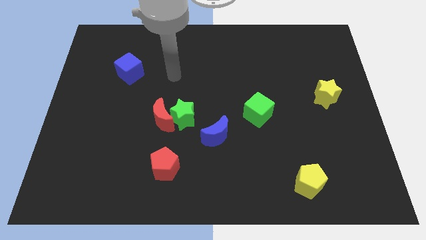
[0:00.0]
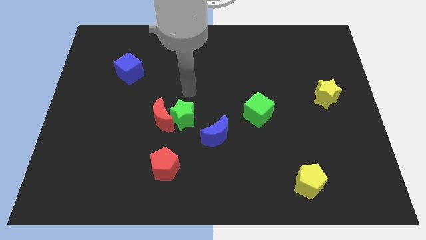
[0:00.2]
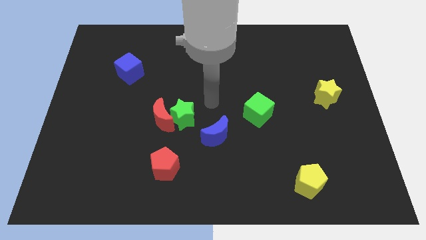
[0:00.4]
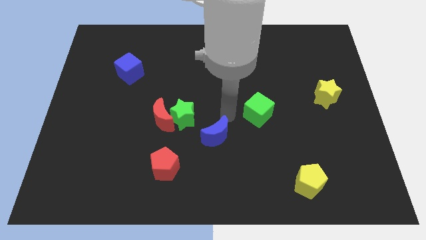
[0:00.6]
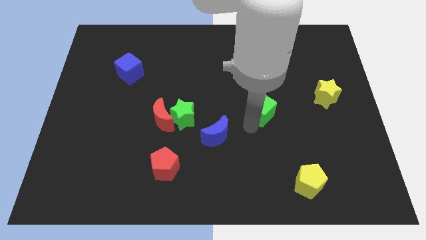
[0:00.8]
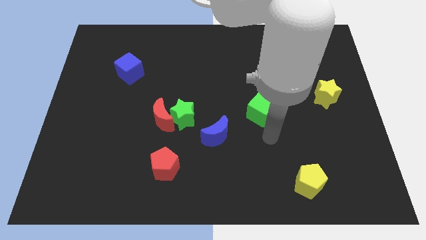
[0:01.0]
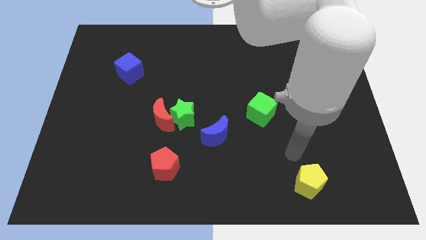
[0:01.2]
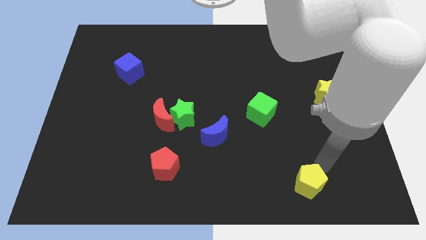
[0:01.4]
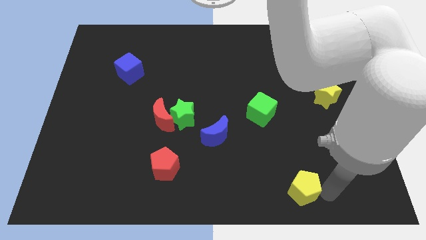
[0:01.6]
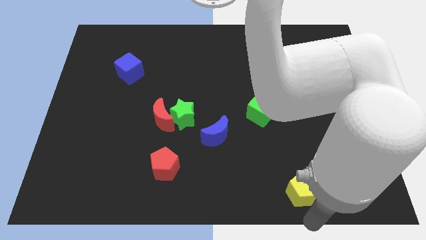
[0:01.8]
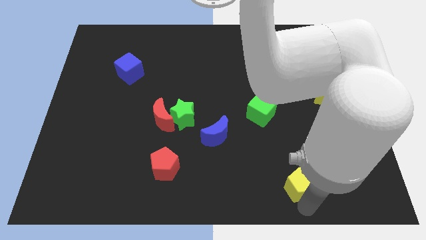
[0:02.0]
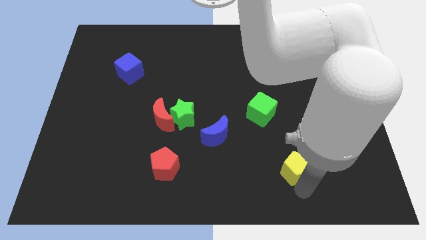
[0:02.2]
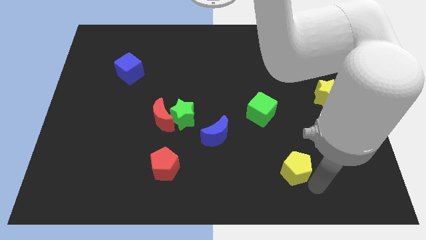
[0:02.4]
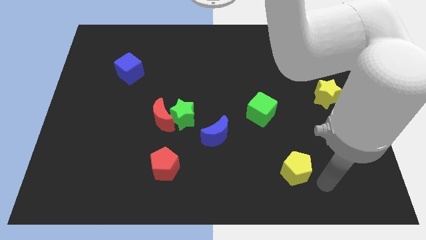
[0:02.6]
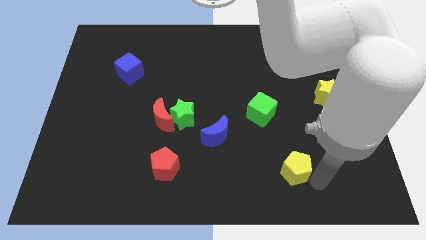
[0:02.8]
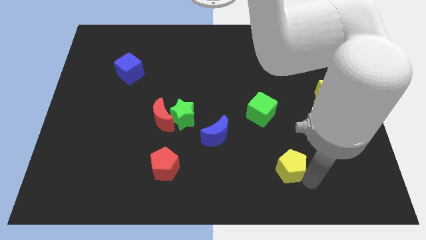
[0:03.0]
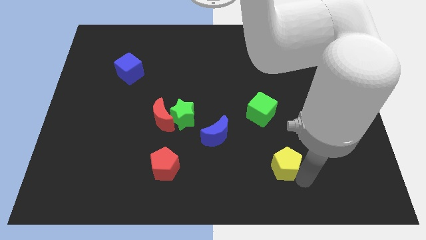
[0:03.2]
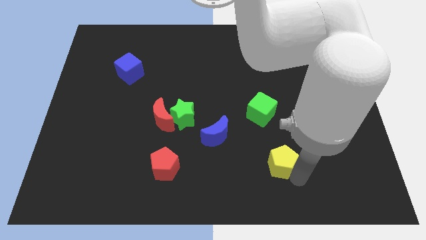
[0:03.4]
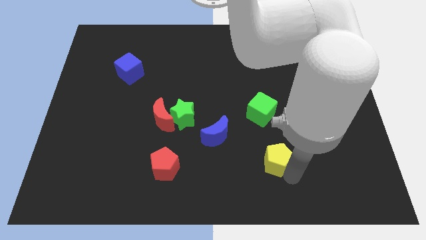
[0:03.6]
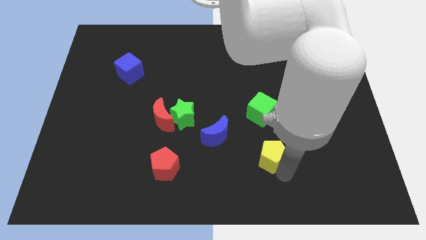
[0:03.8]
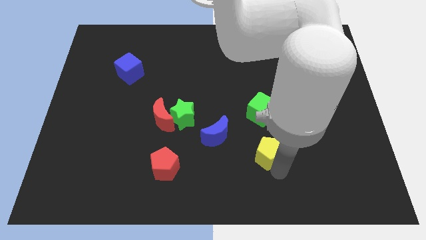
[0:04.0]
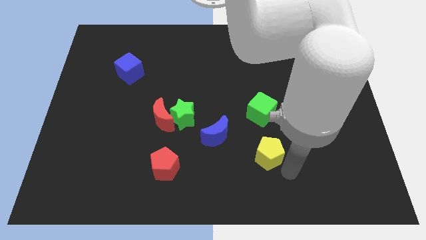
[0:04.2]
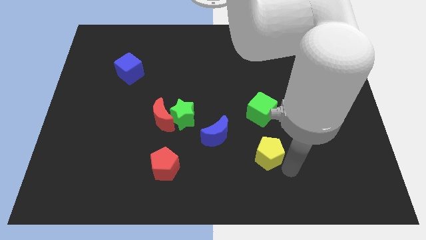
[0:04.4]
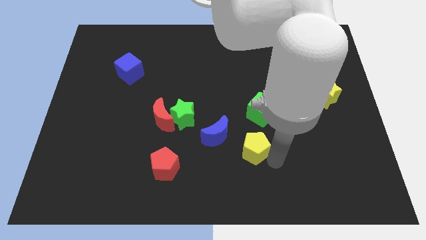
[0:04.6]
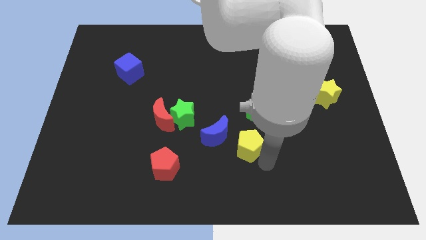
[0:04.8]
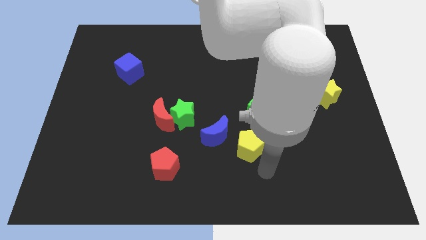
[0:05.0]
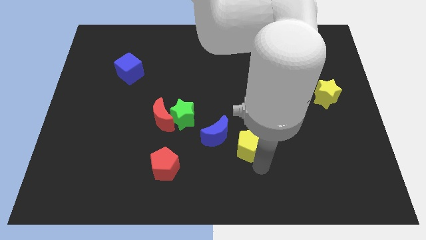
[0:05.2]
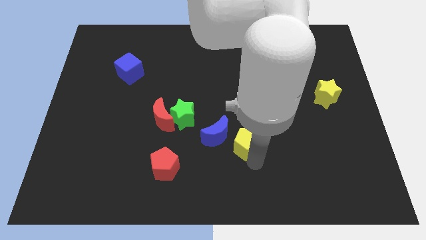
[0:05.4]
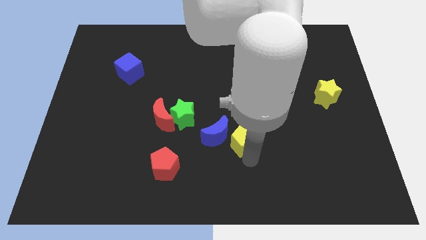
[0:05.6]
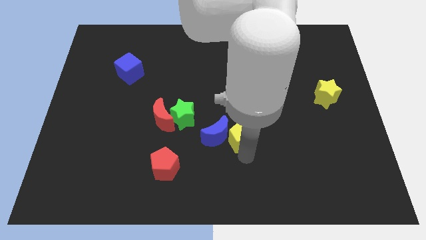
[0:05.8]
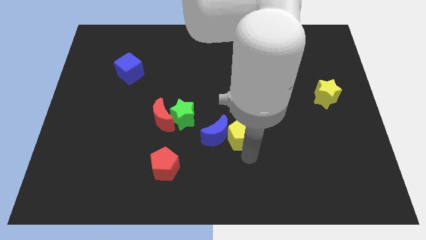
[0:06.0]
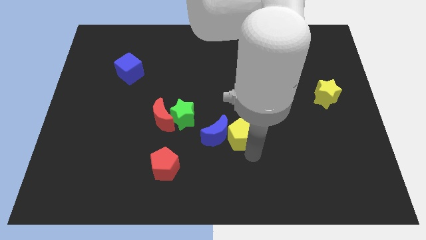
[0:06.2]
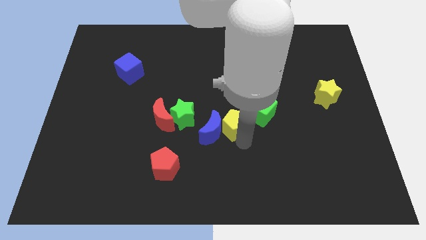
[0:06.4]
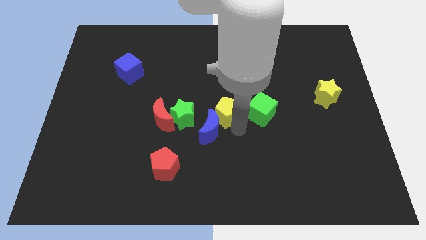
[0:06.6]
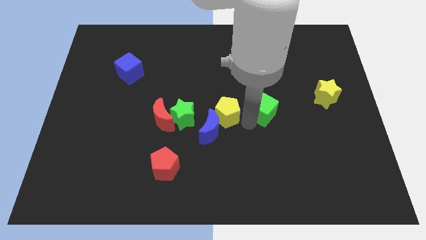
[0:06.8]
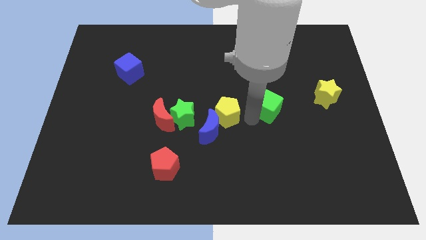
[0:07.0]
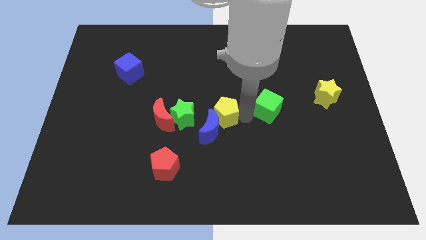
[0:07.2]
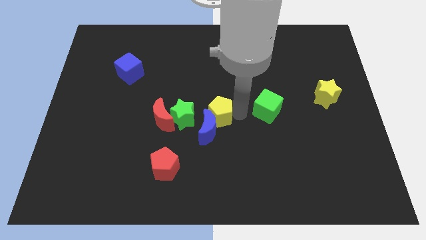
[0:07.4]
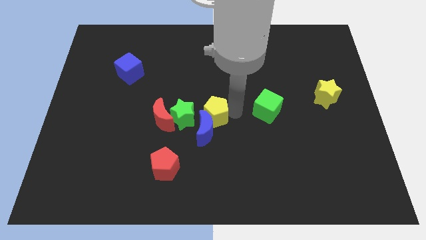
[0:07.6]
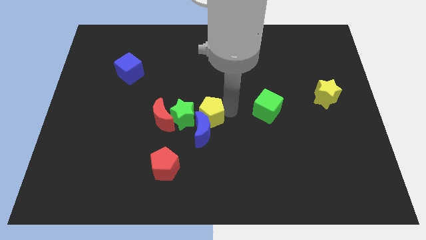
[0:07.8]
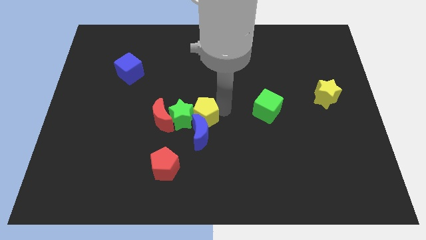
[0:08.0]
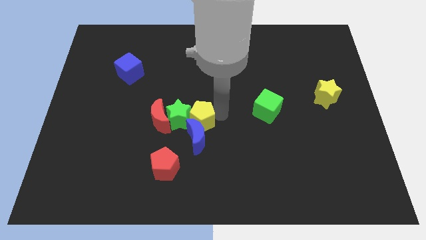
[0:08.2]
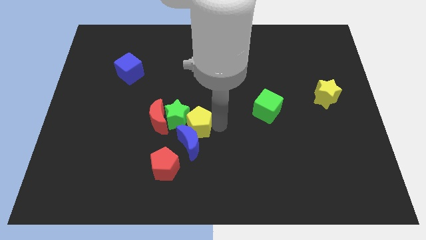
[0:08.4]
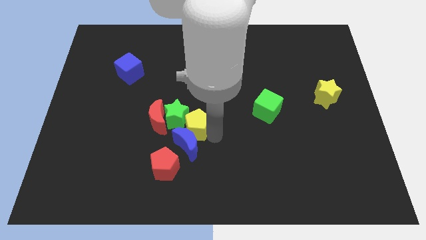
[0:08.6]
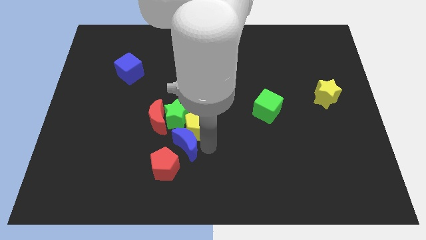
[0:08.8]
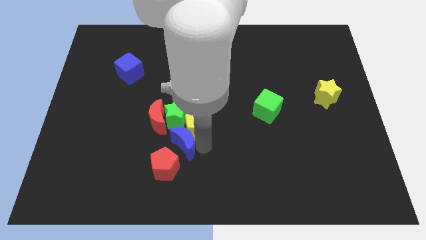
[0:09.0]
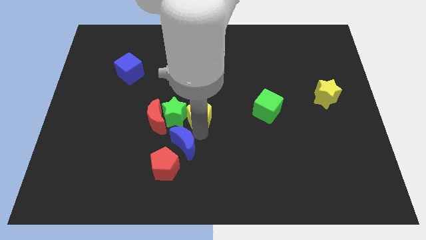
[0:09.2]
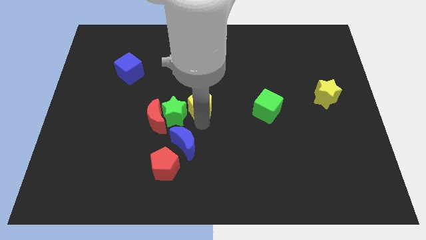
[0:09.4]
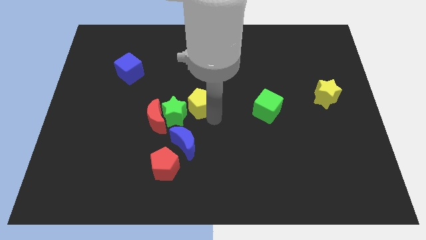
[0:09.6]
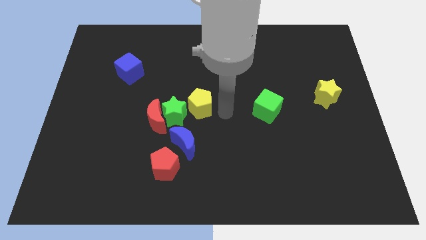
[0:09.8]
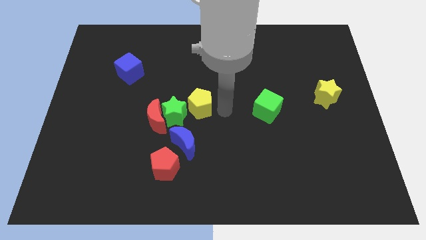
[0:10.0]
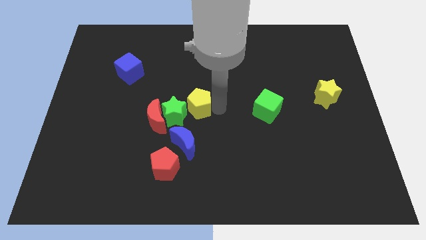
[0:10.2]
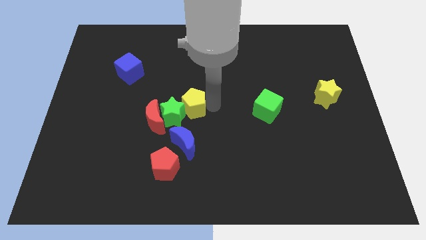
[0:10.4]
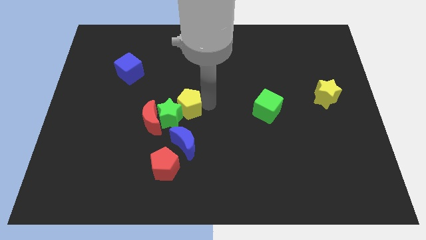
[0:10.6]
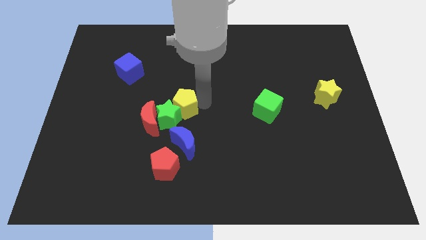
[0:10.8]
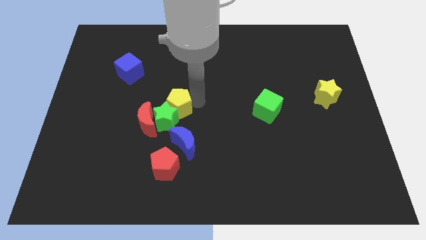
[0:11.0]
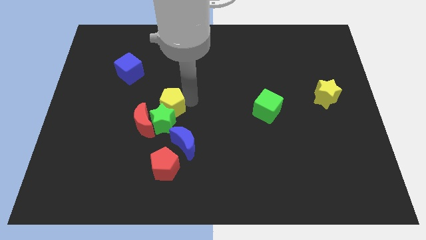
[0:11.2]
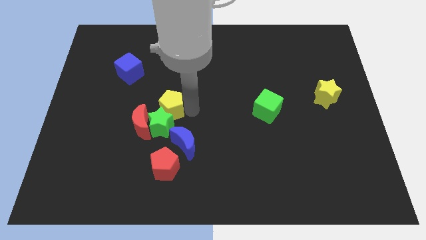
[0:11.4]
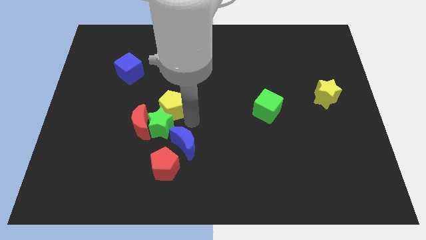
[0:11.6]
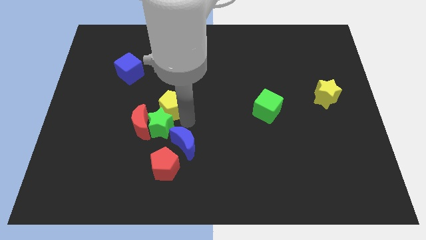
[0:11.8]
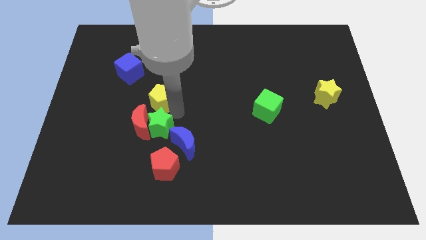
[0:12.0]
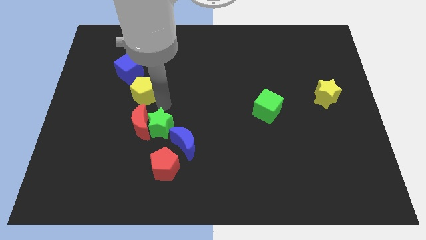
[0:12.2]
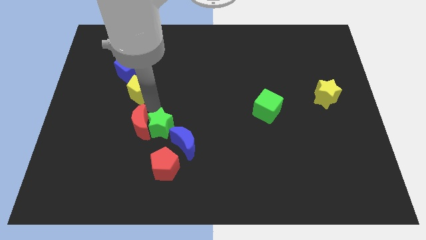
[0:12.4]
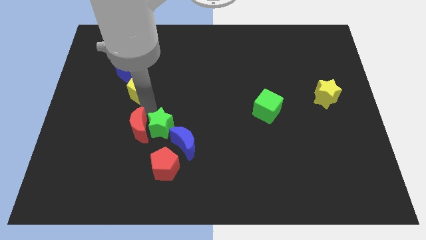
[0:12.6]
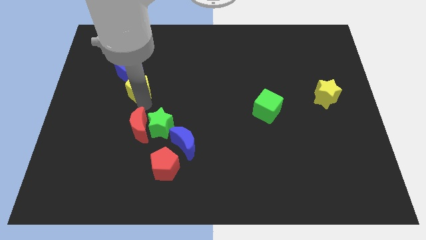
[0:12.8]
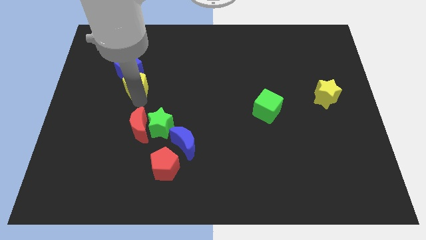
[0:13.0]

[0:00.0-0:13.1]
move the yellow pentagon to the blue cube

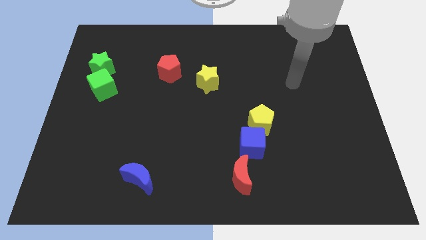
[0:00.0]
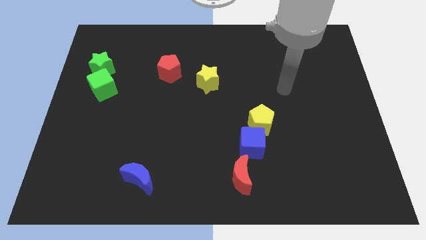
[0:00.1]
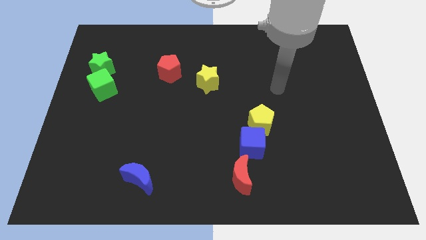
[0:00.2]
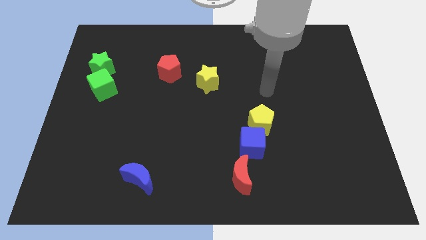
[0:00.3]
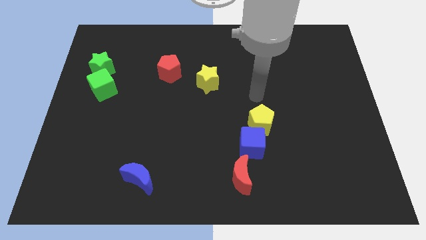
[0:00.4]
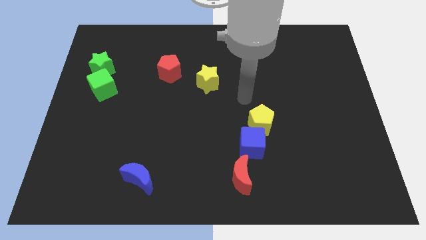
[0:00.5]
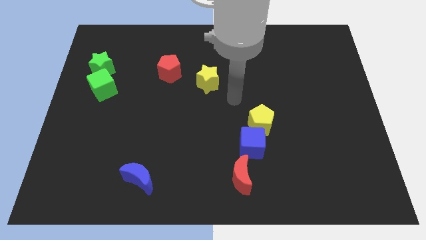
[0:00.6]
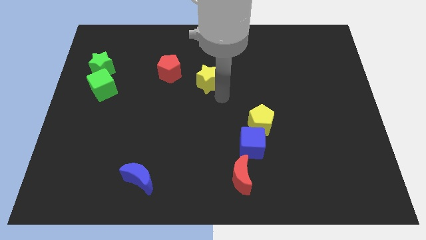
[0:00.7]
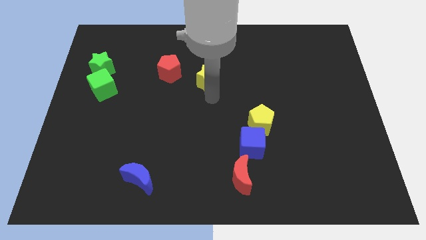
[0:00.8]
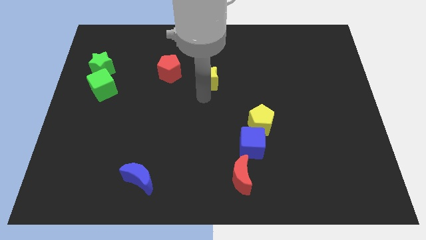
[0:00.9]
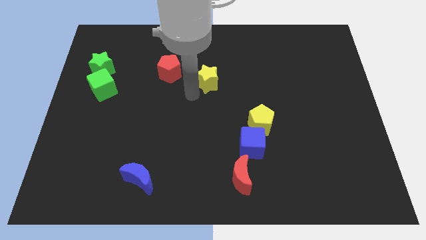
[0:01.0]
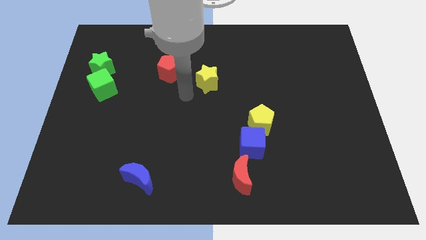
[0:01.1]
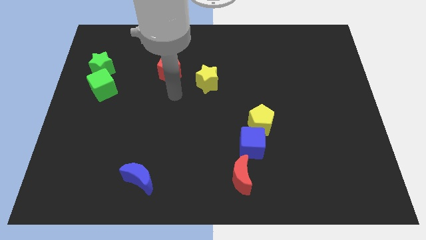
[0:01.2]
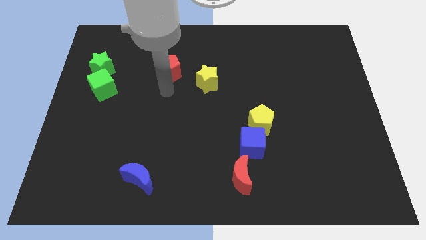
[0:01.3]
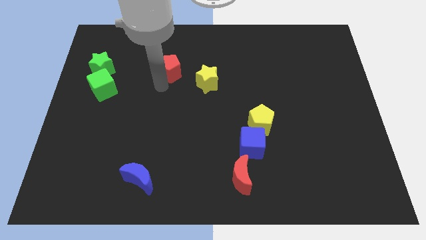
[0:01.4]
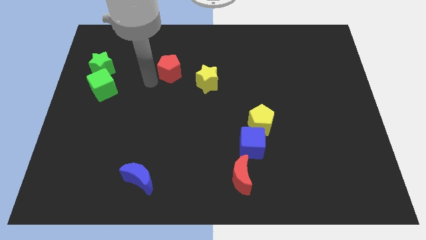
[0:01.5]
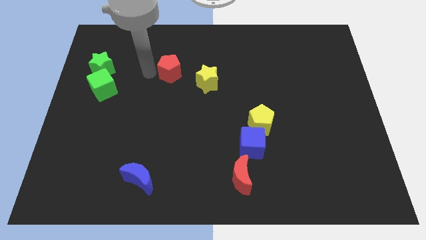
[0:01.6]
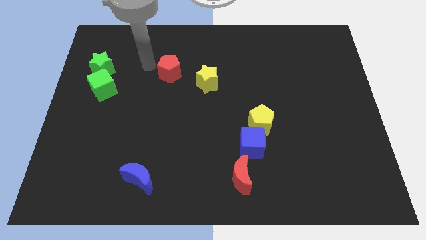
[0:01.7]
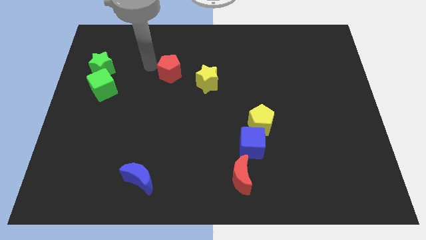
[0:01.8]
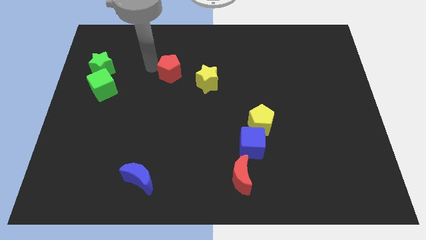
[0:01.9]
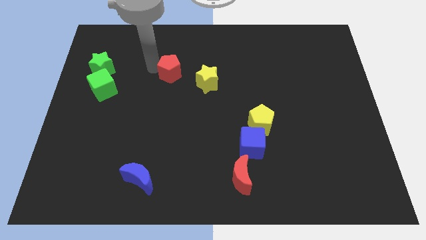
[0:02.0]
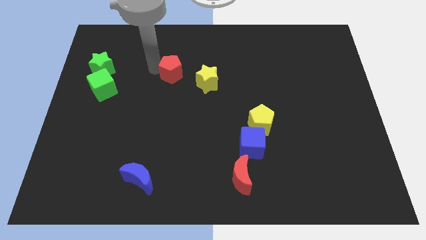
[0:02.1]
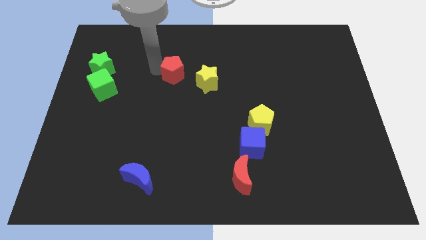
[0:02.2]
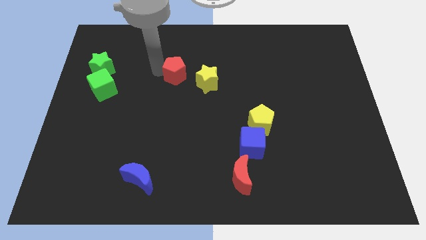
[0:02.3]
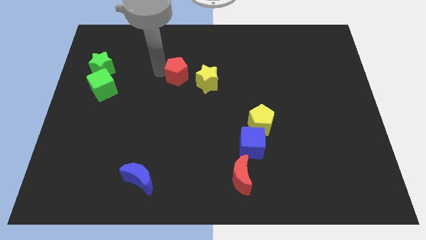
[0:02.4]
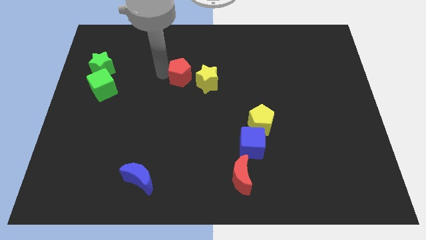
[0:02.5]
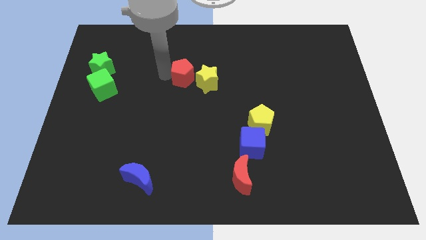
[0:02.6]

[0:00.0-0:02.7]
put the red pentagon next to the yellow star
